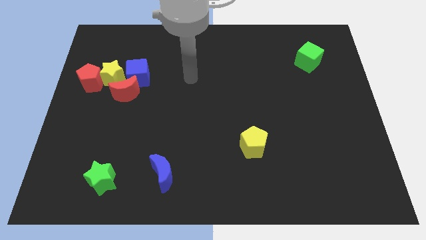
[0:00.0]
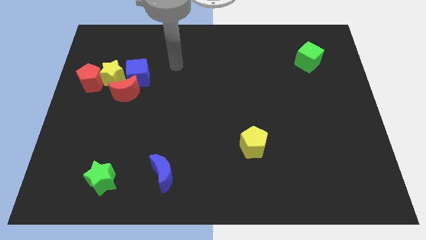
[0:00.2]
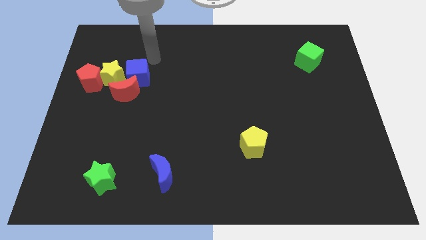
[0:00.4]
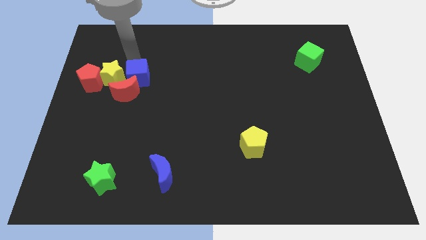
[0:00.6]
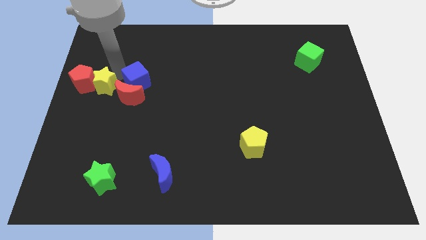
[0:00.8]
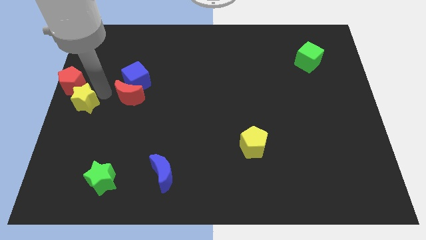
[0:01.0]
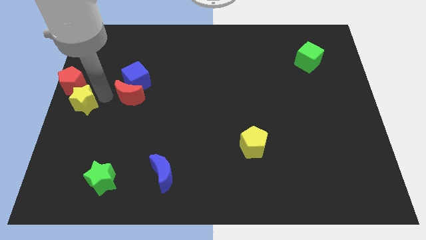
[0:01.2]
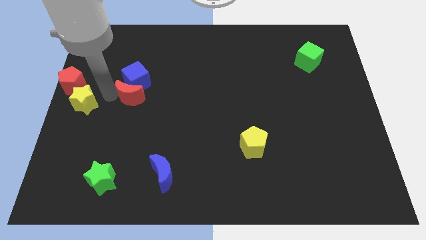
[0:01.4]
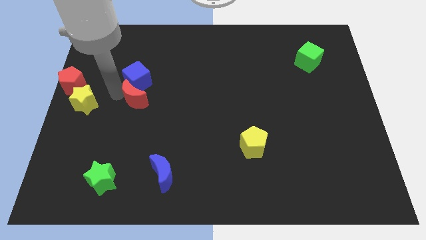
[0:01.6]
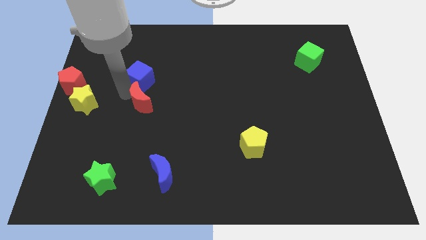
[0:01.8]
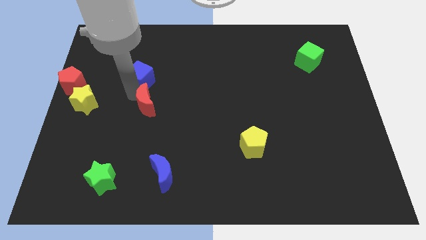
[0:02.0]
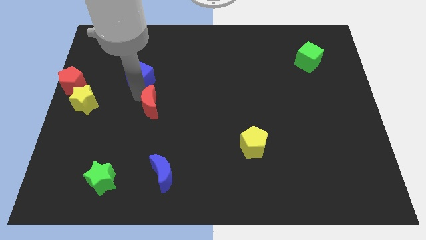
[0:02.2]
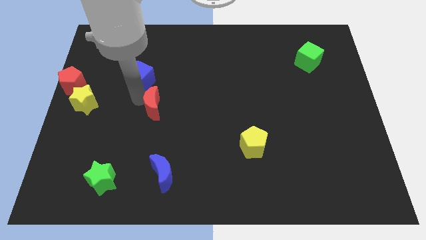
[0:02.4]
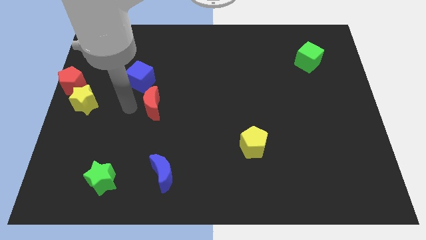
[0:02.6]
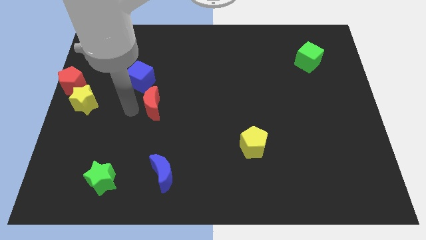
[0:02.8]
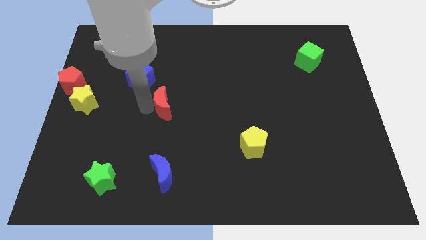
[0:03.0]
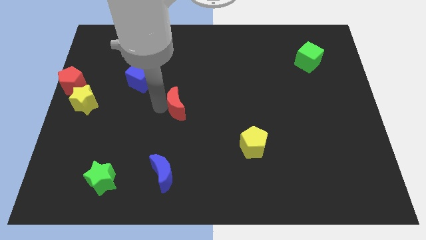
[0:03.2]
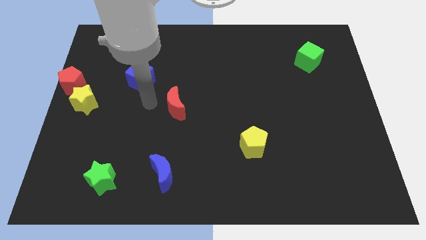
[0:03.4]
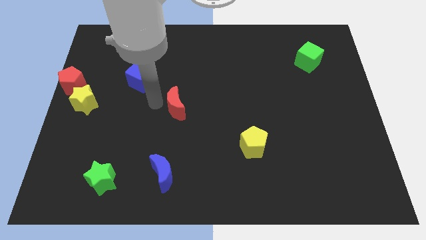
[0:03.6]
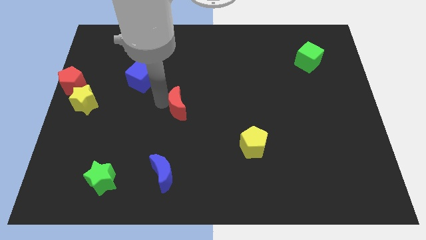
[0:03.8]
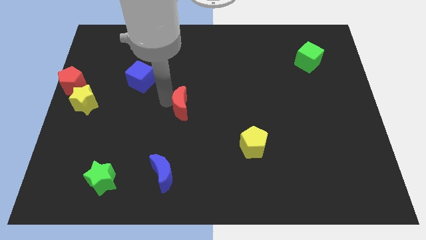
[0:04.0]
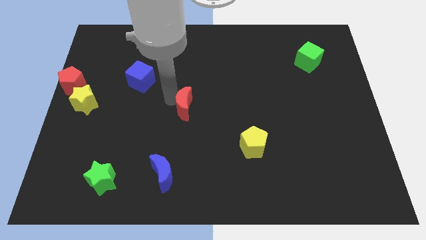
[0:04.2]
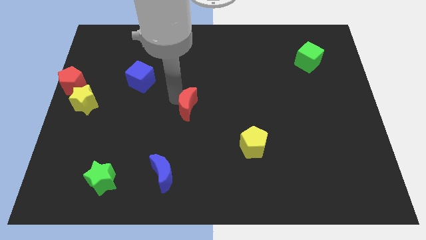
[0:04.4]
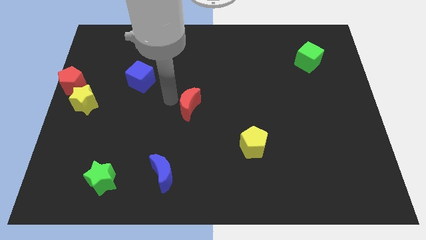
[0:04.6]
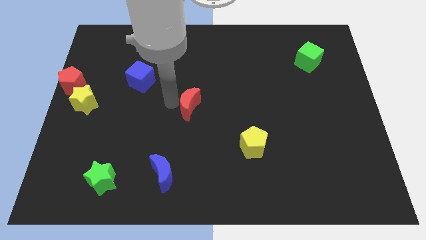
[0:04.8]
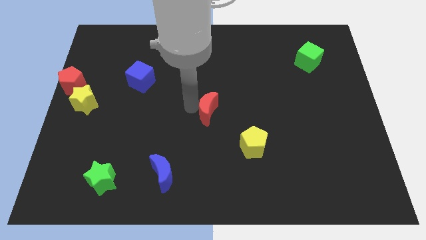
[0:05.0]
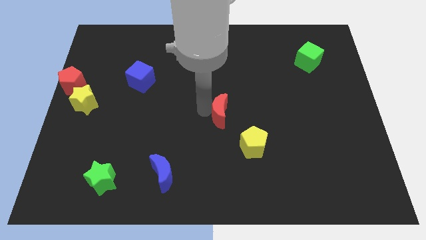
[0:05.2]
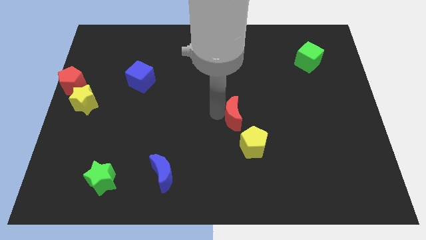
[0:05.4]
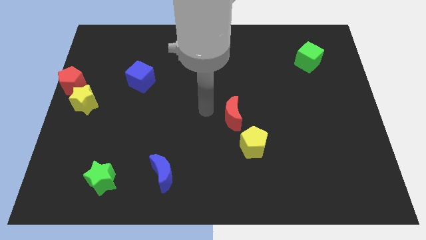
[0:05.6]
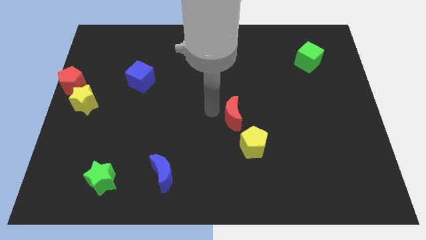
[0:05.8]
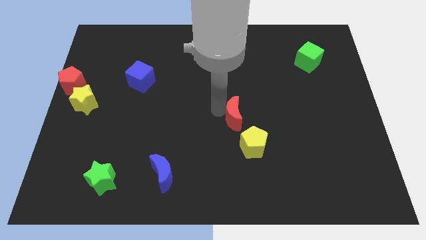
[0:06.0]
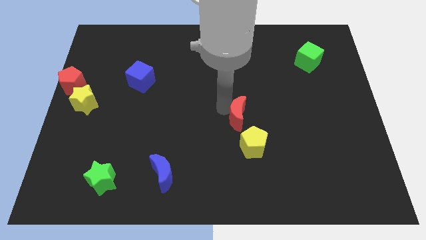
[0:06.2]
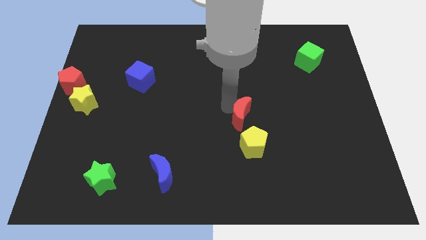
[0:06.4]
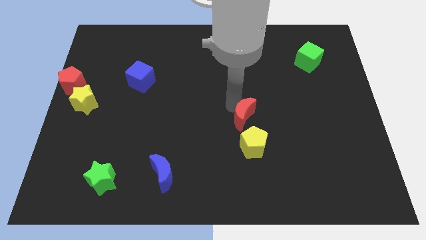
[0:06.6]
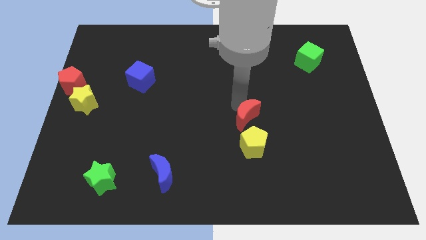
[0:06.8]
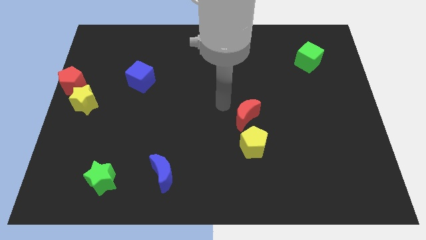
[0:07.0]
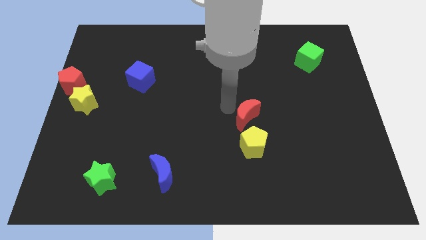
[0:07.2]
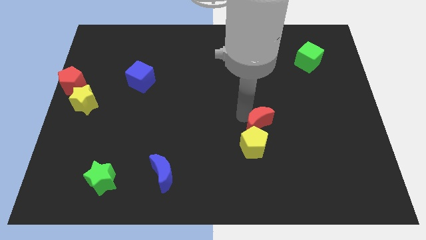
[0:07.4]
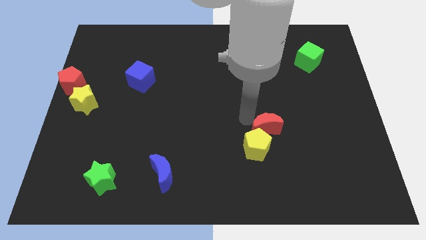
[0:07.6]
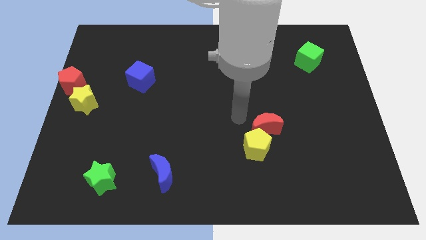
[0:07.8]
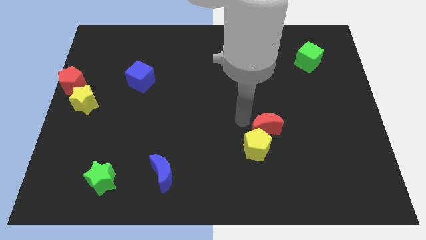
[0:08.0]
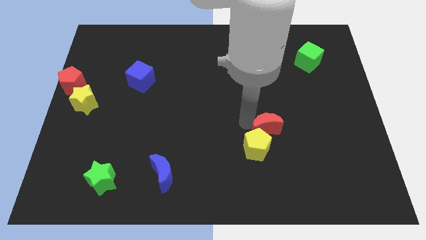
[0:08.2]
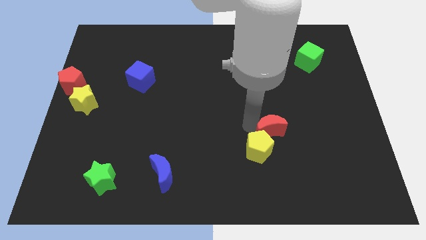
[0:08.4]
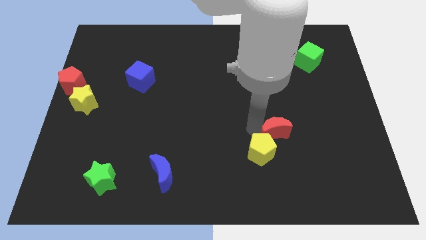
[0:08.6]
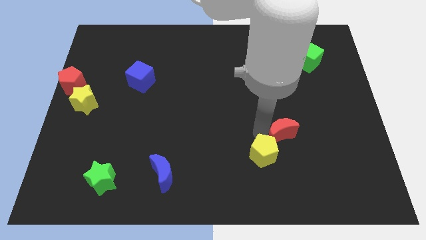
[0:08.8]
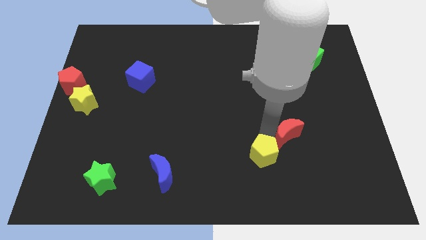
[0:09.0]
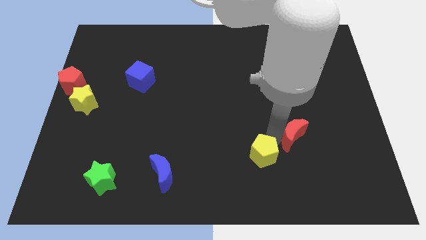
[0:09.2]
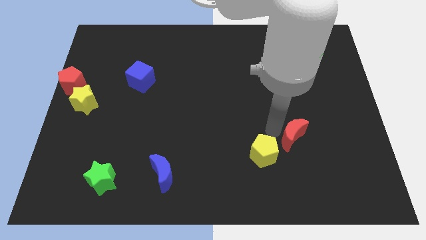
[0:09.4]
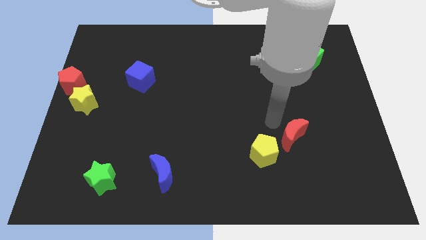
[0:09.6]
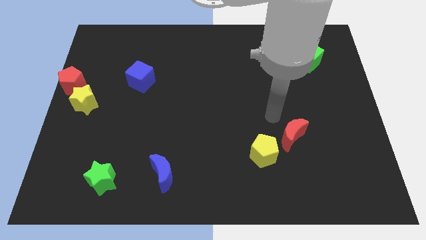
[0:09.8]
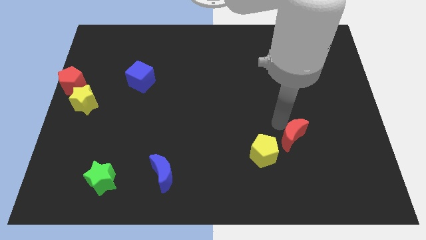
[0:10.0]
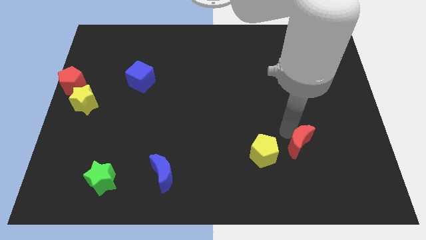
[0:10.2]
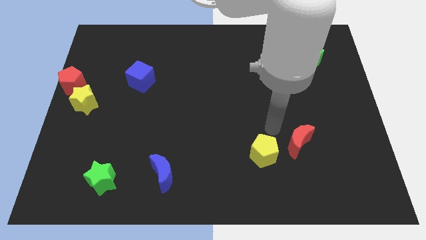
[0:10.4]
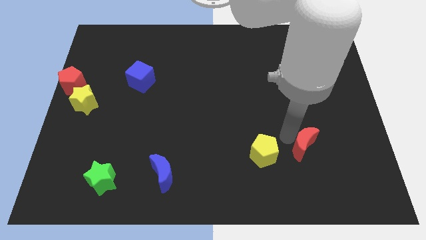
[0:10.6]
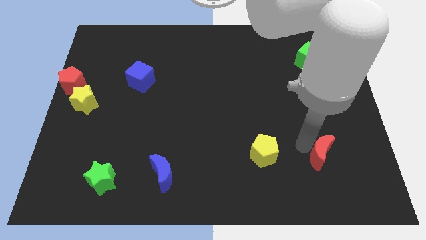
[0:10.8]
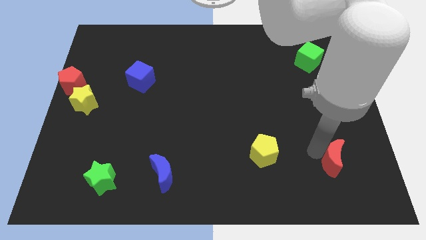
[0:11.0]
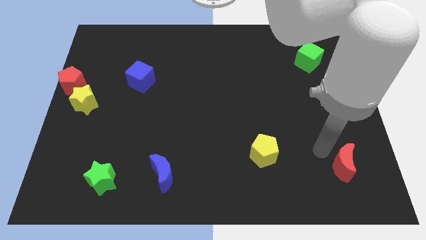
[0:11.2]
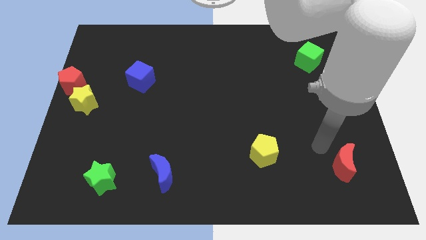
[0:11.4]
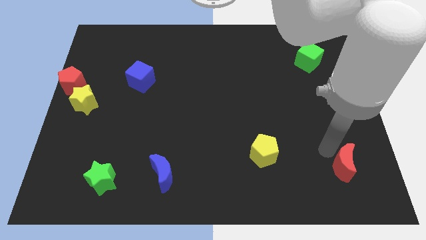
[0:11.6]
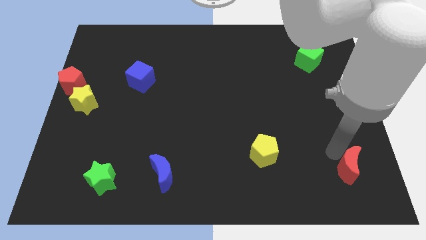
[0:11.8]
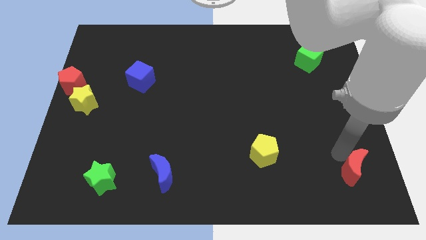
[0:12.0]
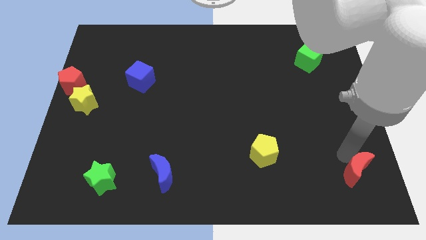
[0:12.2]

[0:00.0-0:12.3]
push the red moon to the bottom right of the board
